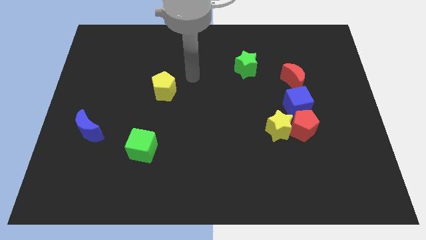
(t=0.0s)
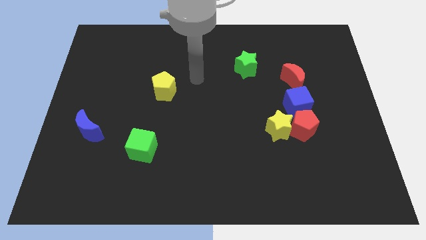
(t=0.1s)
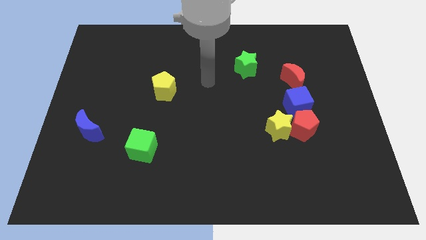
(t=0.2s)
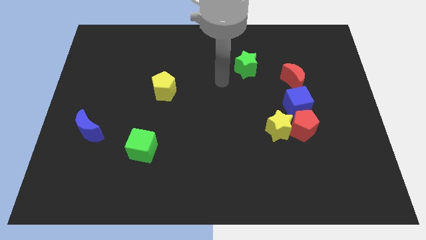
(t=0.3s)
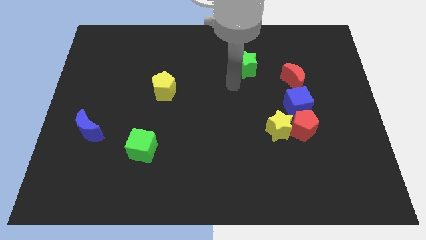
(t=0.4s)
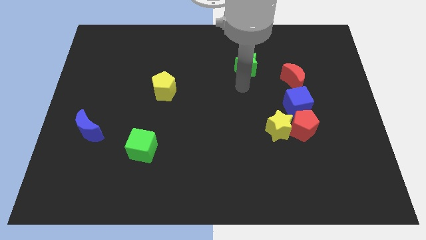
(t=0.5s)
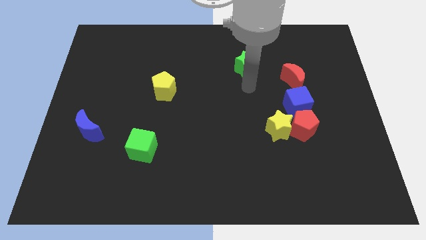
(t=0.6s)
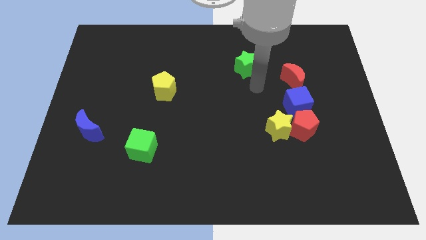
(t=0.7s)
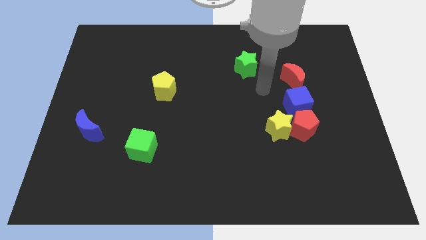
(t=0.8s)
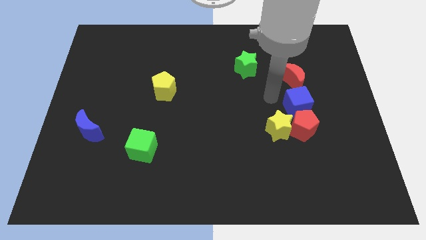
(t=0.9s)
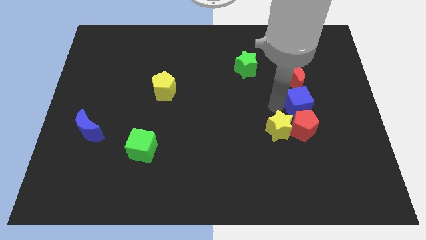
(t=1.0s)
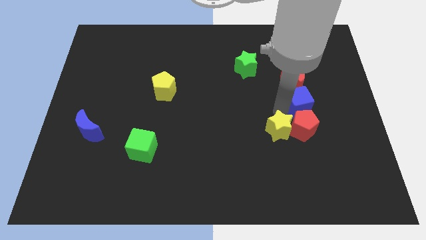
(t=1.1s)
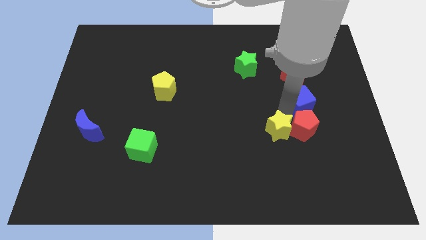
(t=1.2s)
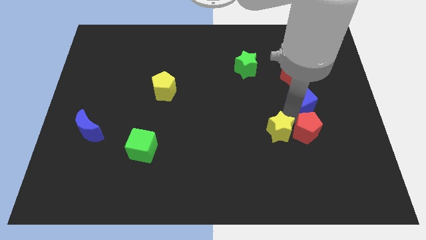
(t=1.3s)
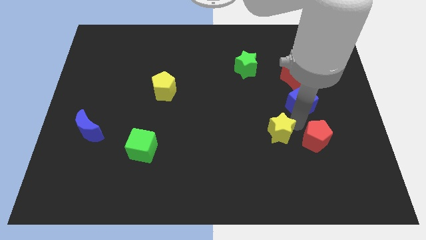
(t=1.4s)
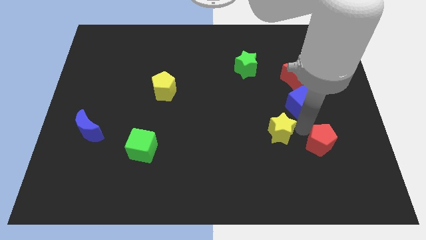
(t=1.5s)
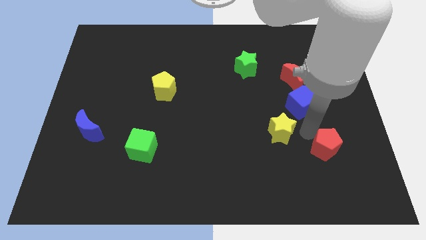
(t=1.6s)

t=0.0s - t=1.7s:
pull the red pentagon apart from the yellow star and blue cube

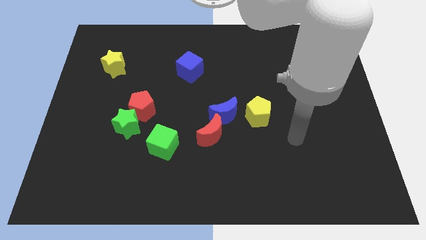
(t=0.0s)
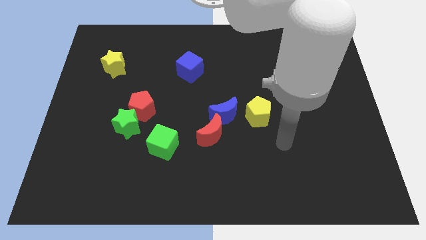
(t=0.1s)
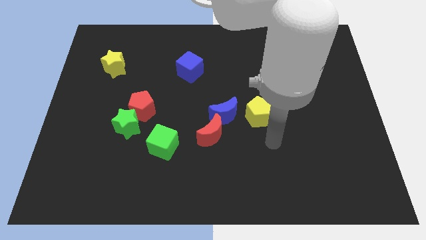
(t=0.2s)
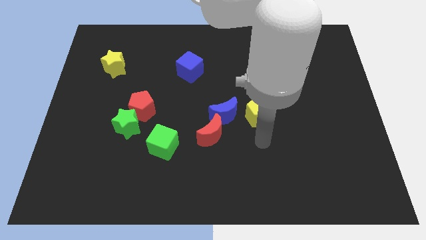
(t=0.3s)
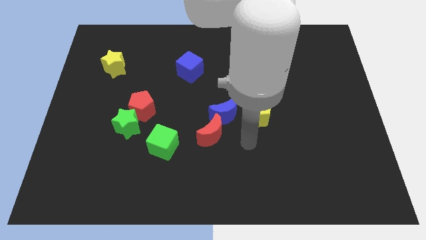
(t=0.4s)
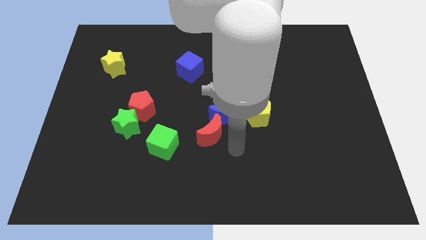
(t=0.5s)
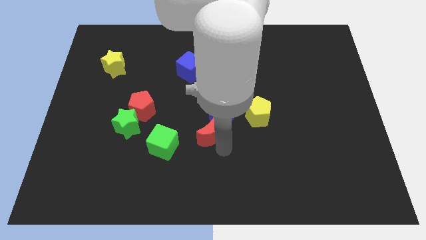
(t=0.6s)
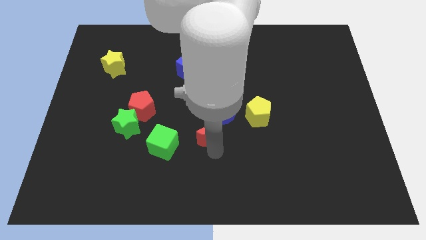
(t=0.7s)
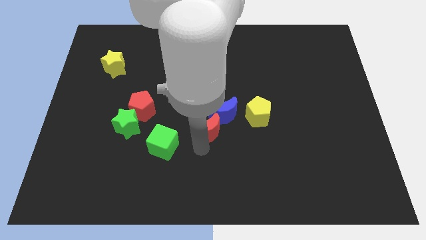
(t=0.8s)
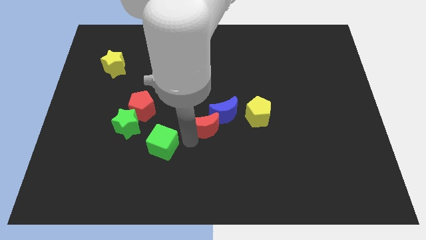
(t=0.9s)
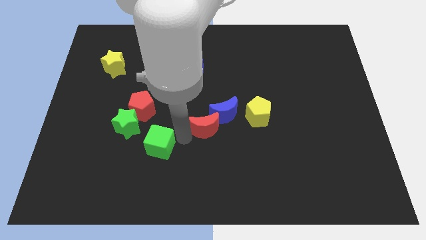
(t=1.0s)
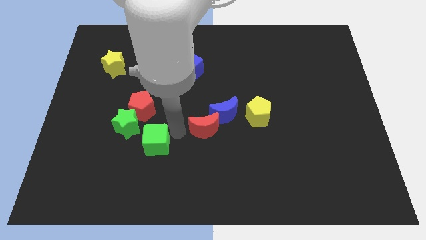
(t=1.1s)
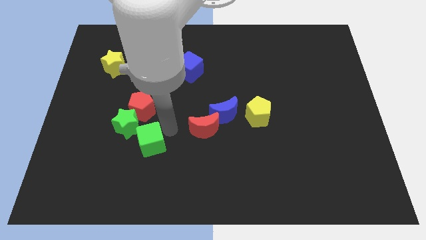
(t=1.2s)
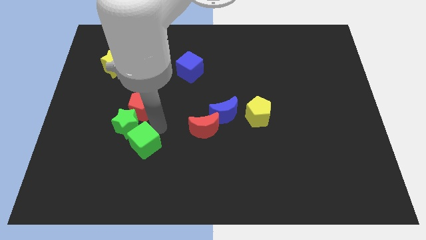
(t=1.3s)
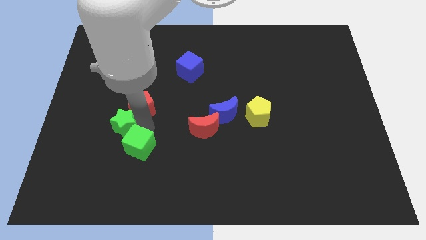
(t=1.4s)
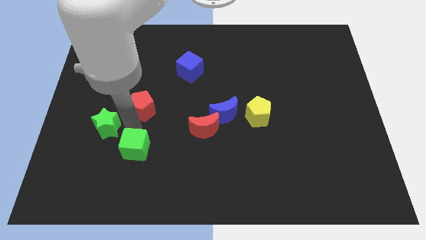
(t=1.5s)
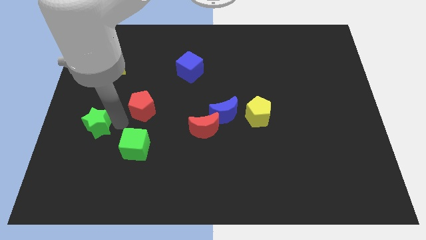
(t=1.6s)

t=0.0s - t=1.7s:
move the red pentagon away from the green star

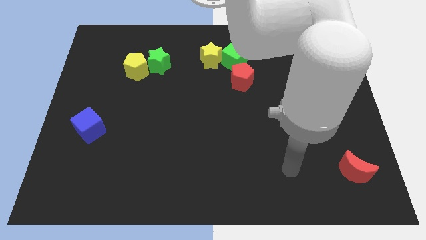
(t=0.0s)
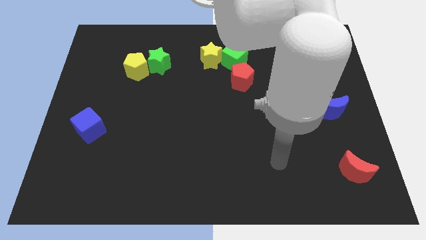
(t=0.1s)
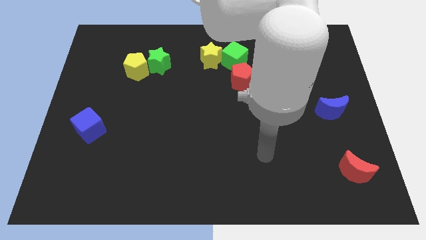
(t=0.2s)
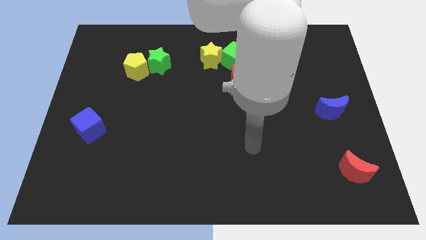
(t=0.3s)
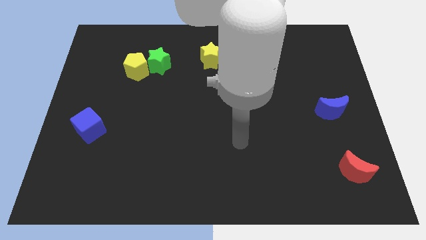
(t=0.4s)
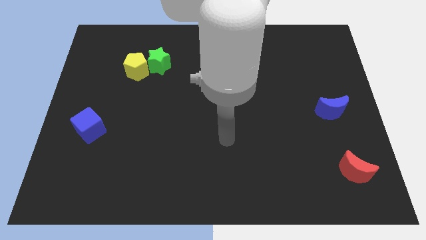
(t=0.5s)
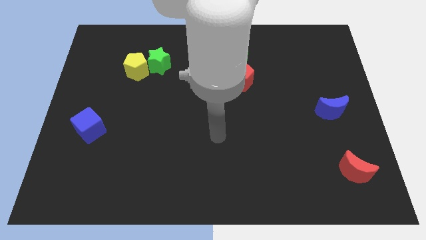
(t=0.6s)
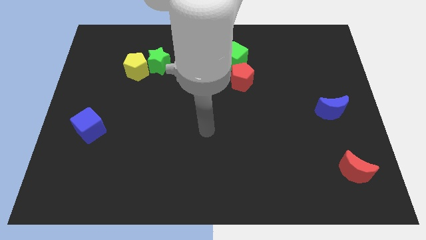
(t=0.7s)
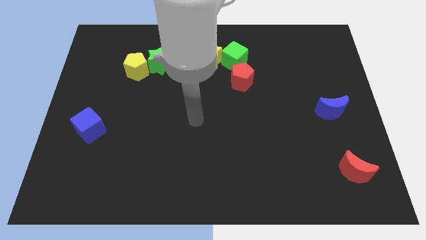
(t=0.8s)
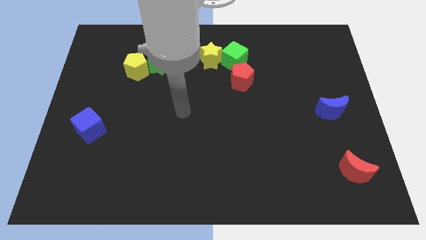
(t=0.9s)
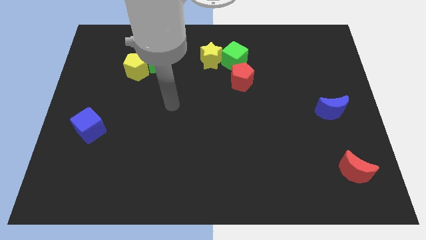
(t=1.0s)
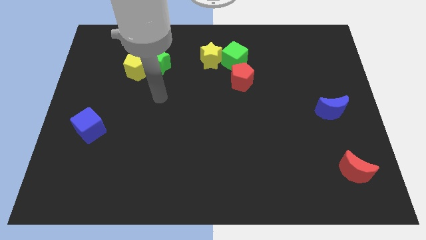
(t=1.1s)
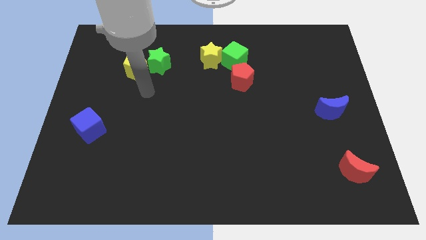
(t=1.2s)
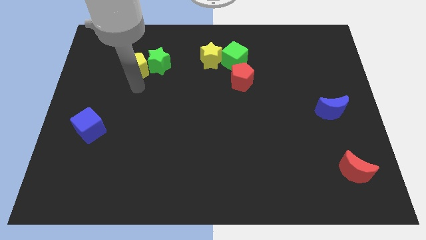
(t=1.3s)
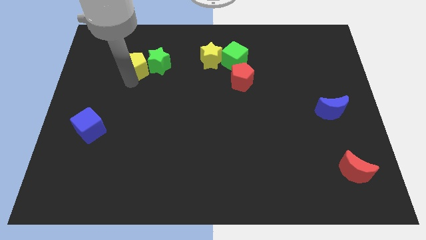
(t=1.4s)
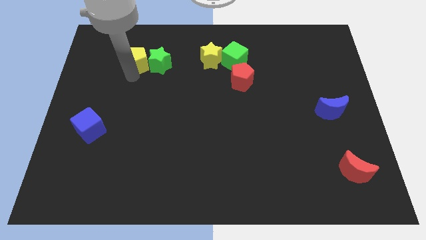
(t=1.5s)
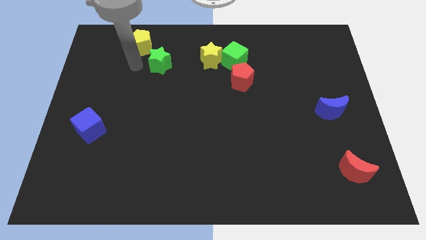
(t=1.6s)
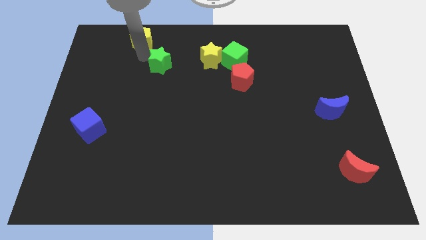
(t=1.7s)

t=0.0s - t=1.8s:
pull the green star apart from the yellow pentagon

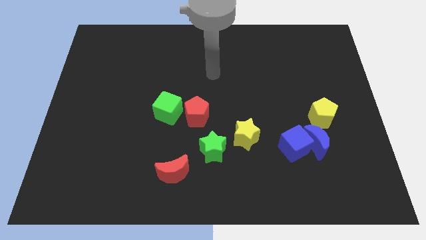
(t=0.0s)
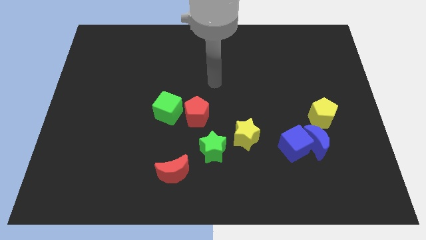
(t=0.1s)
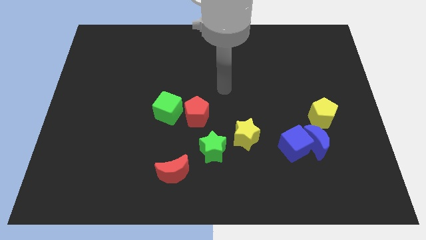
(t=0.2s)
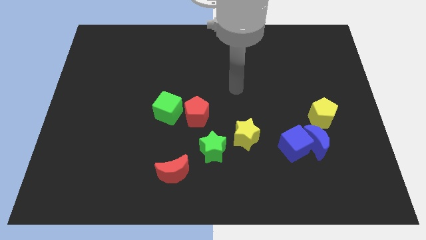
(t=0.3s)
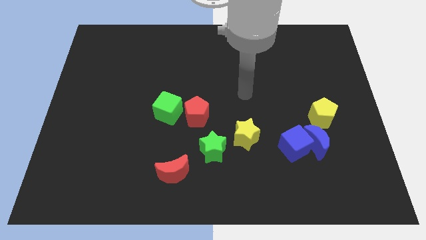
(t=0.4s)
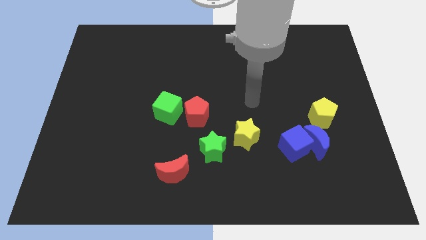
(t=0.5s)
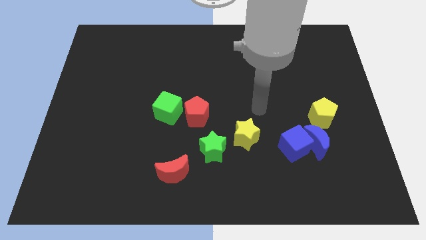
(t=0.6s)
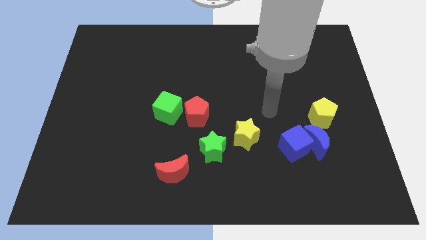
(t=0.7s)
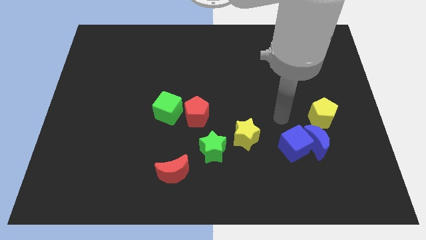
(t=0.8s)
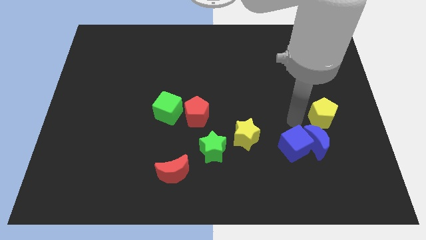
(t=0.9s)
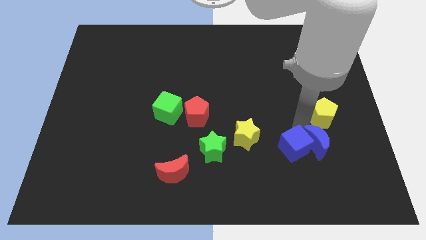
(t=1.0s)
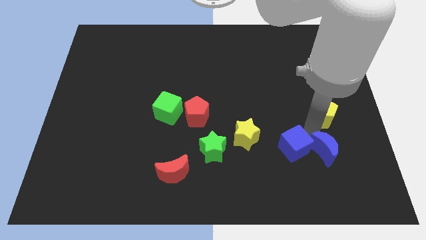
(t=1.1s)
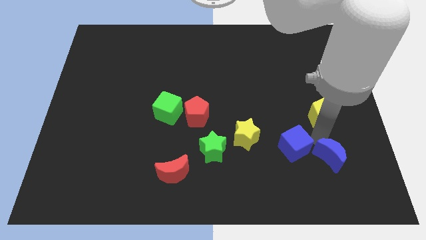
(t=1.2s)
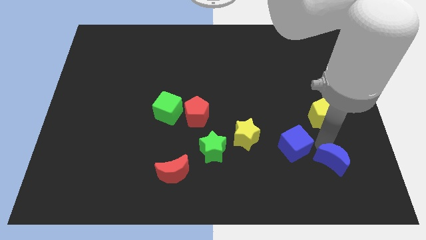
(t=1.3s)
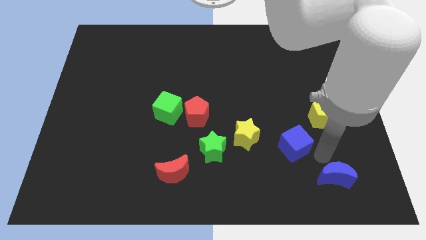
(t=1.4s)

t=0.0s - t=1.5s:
pull the blue cube apart from the blue moon

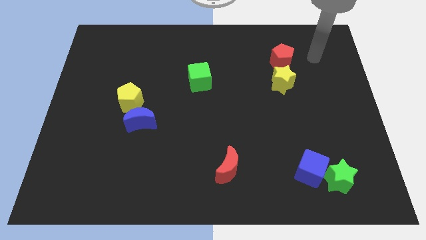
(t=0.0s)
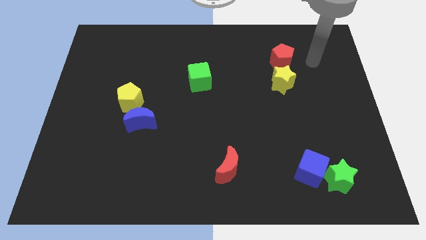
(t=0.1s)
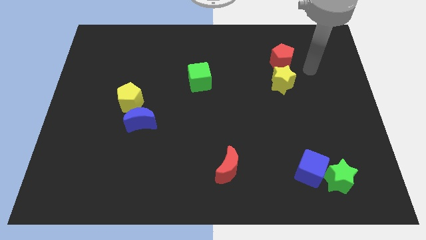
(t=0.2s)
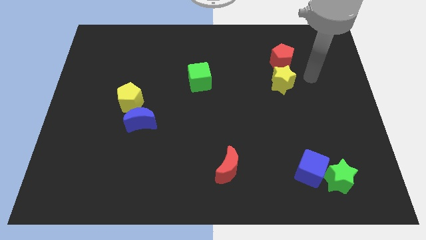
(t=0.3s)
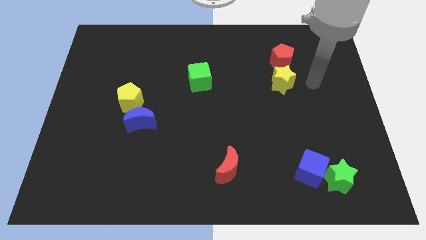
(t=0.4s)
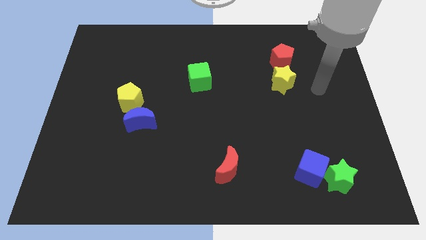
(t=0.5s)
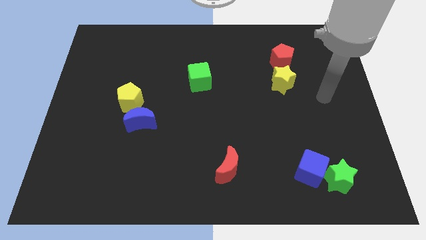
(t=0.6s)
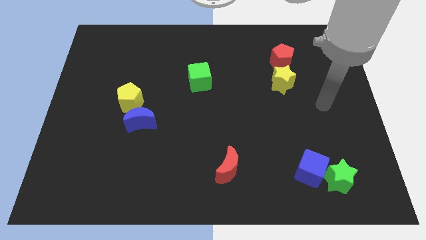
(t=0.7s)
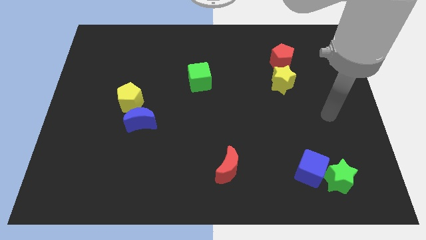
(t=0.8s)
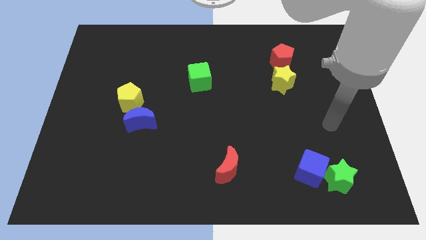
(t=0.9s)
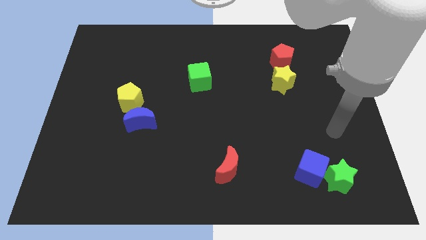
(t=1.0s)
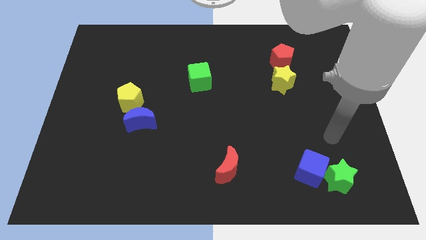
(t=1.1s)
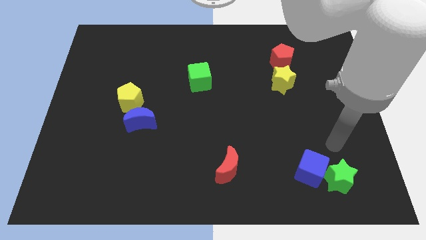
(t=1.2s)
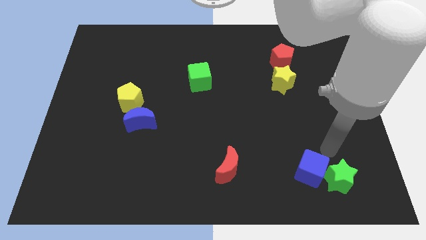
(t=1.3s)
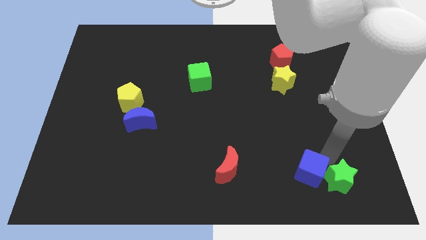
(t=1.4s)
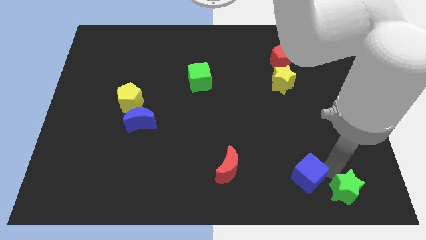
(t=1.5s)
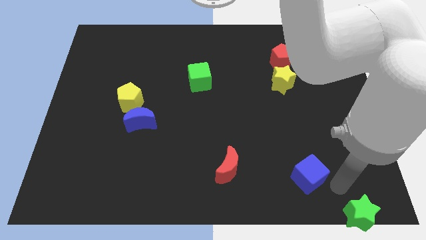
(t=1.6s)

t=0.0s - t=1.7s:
move the blue cube away from the green star

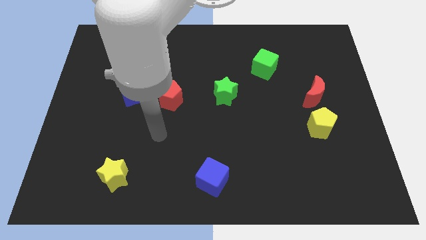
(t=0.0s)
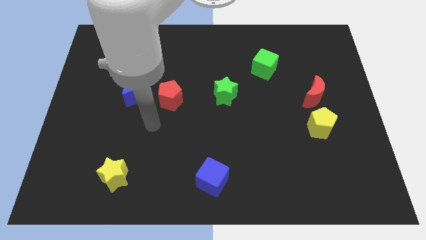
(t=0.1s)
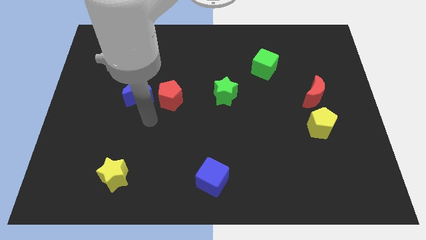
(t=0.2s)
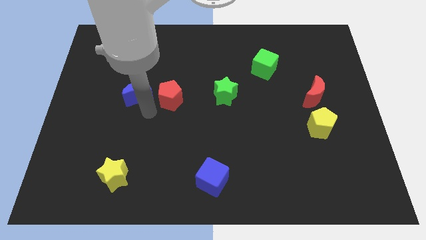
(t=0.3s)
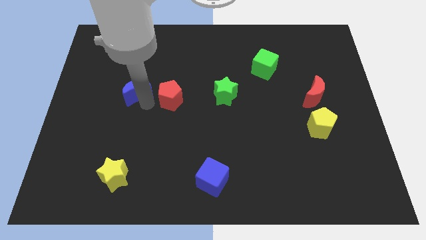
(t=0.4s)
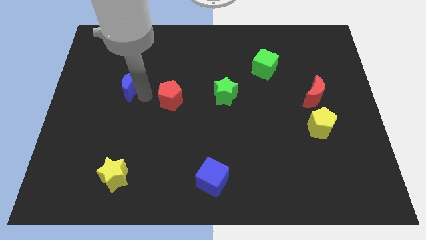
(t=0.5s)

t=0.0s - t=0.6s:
pull the red pentagon apart from the blue moon

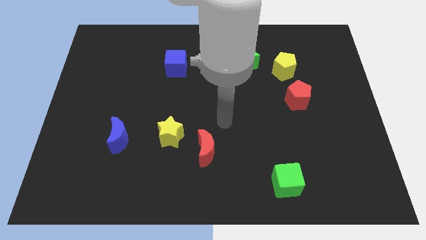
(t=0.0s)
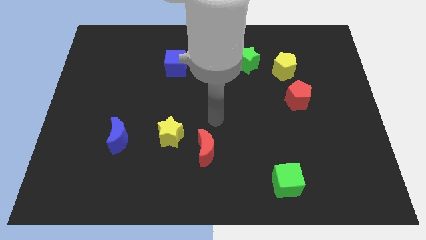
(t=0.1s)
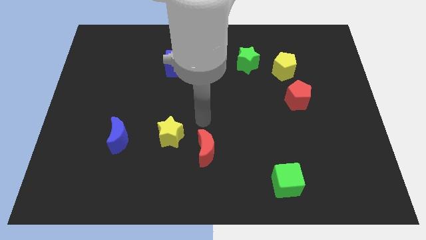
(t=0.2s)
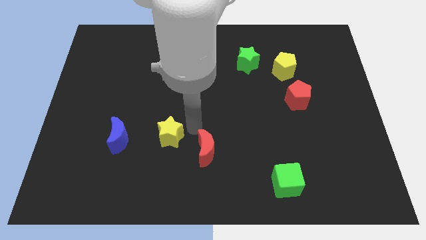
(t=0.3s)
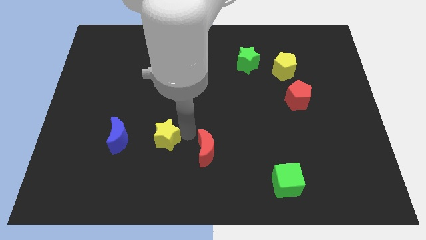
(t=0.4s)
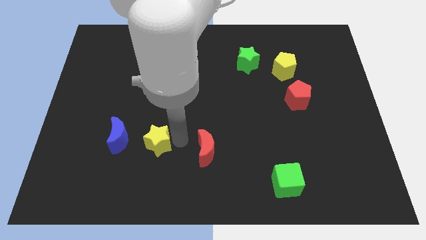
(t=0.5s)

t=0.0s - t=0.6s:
move the red moon away from the yellow star
